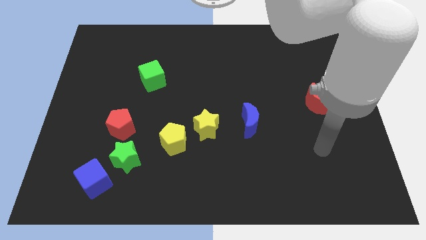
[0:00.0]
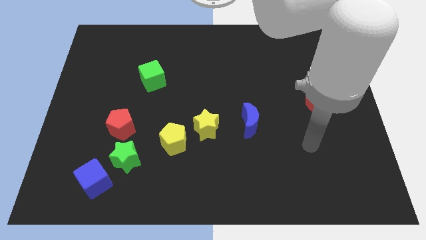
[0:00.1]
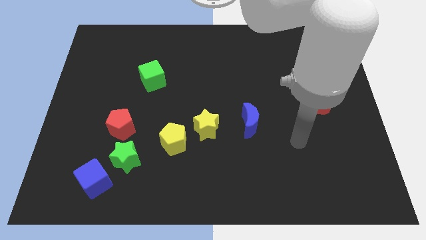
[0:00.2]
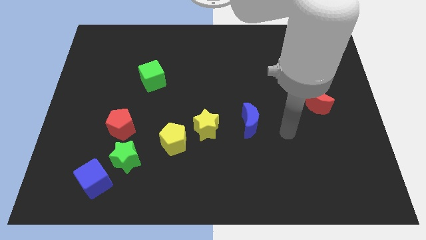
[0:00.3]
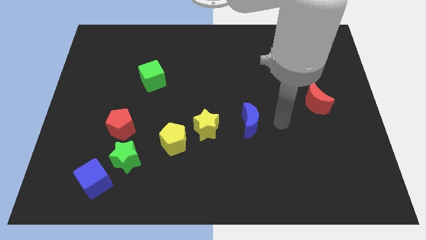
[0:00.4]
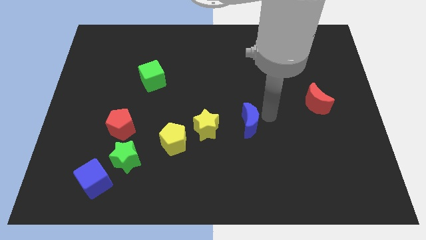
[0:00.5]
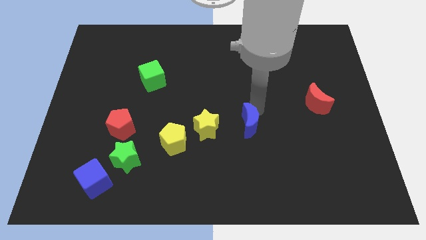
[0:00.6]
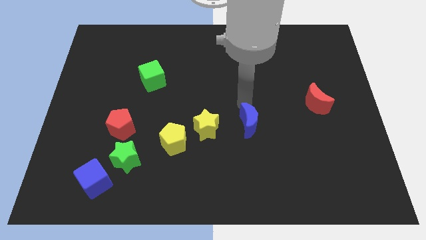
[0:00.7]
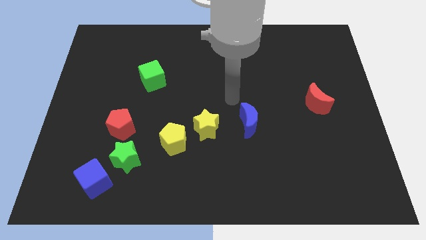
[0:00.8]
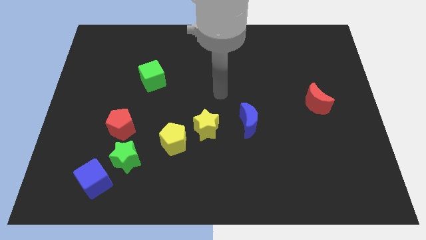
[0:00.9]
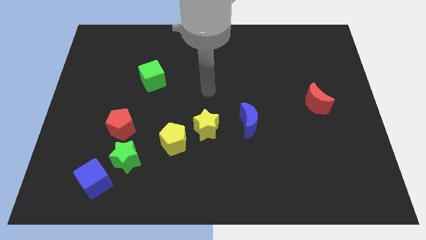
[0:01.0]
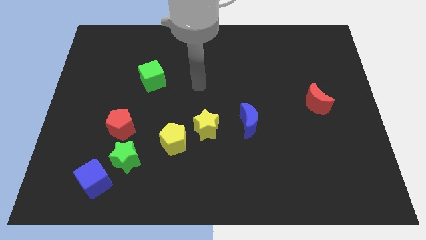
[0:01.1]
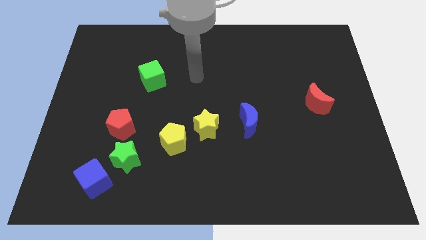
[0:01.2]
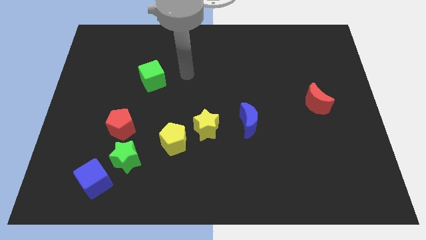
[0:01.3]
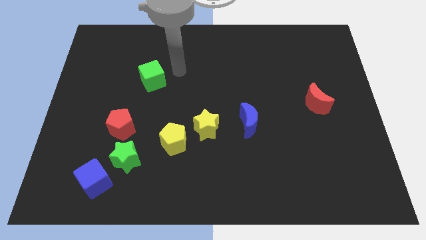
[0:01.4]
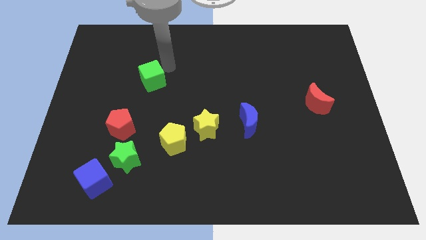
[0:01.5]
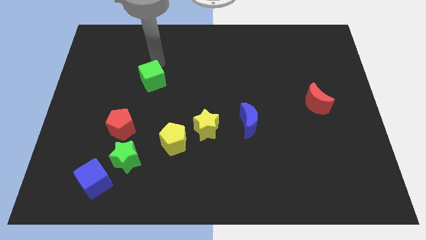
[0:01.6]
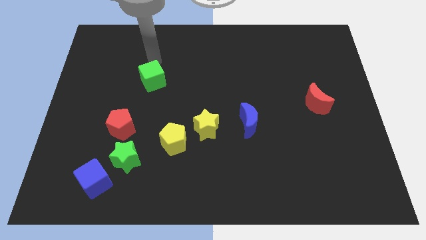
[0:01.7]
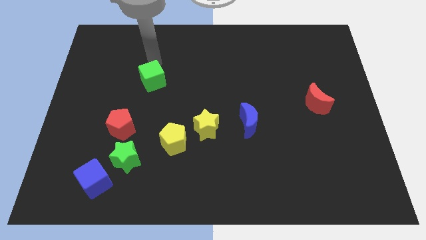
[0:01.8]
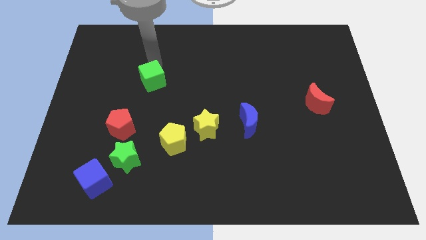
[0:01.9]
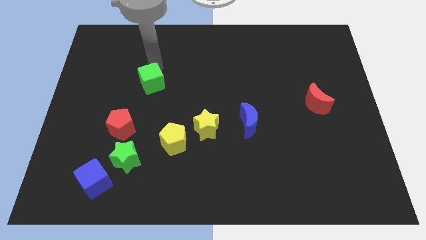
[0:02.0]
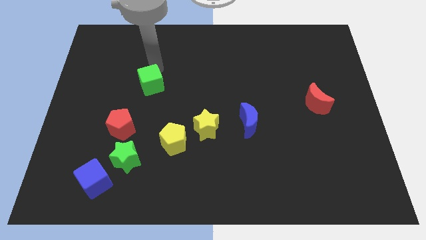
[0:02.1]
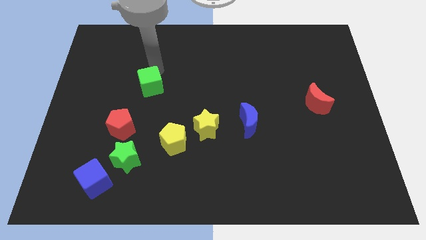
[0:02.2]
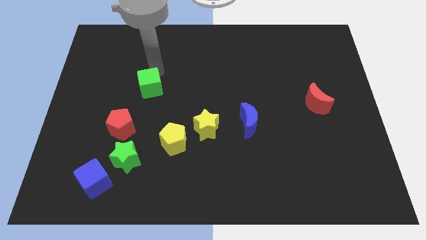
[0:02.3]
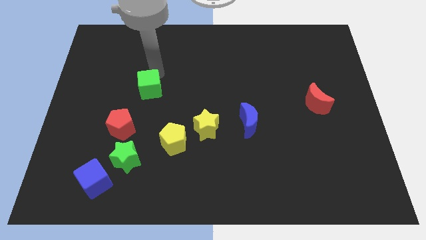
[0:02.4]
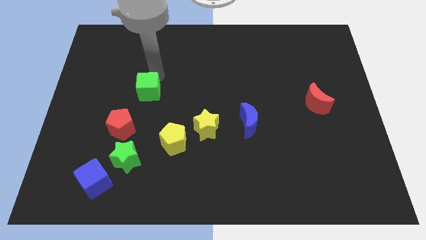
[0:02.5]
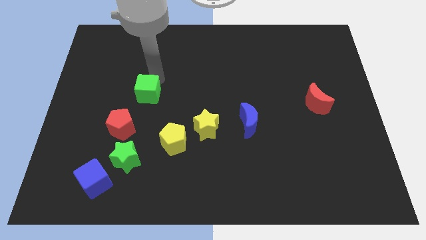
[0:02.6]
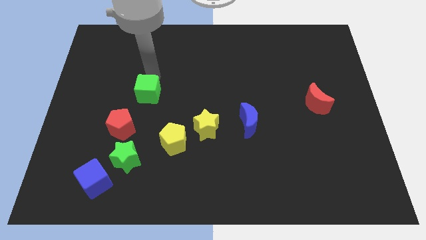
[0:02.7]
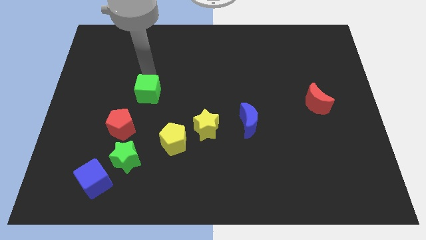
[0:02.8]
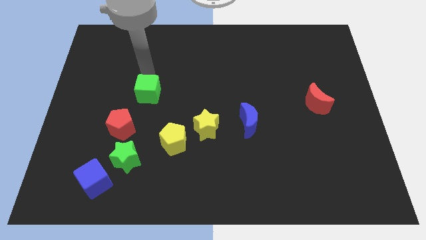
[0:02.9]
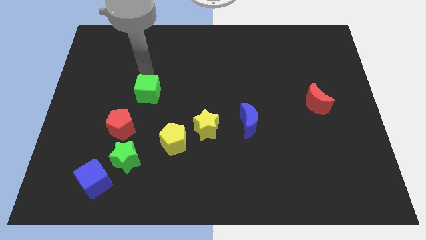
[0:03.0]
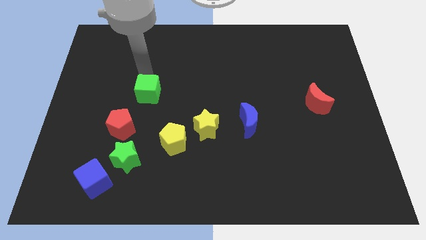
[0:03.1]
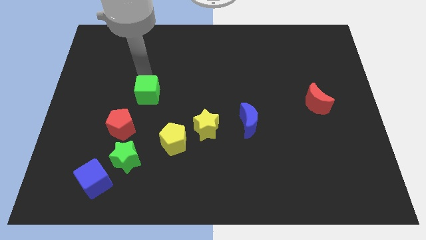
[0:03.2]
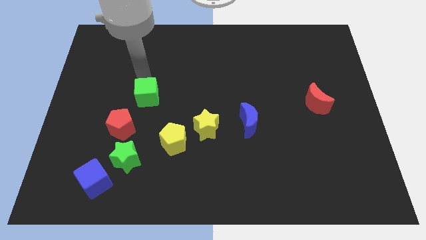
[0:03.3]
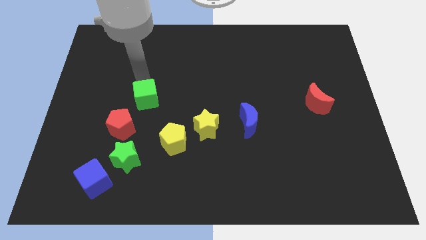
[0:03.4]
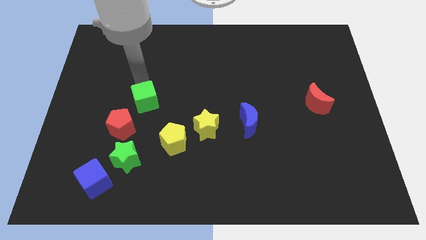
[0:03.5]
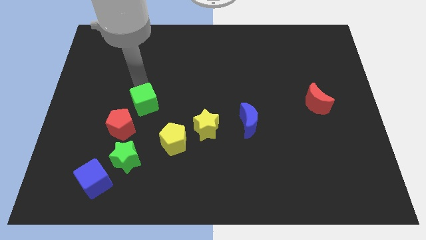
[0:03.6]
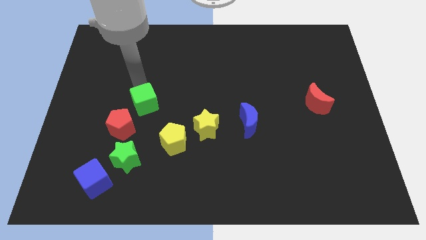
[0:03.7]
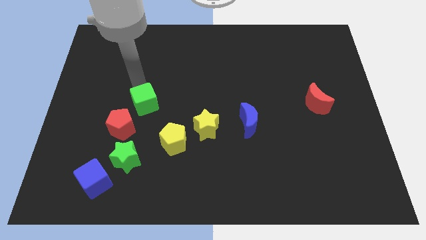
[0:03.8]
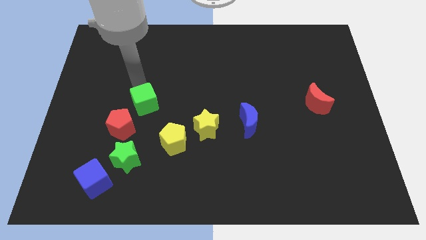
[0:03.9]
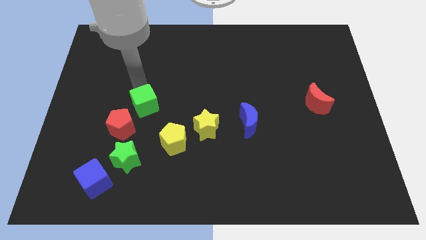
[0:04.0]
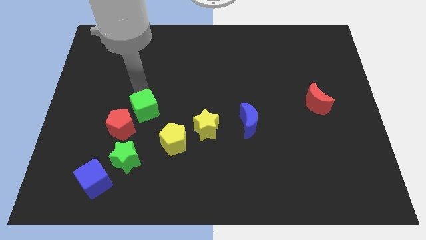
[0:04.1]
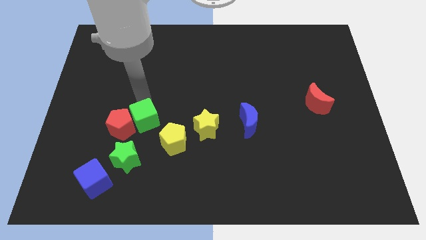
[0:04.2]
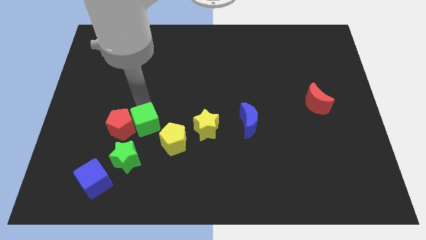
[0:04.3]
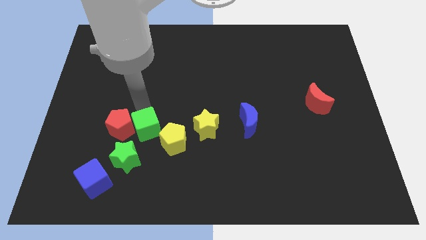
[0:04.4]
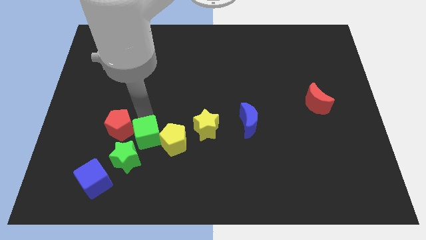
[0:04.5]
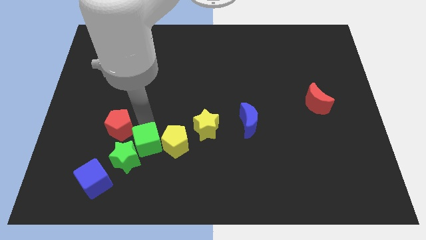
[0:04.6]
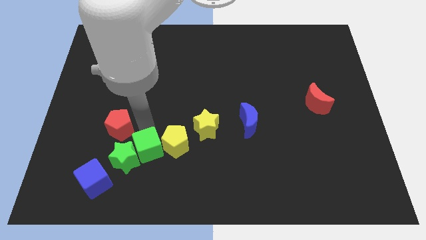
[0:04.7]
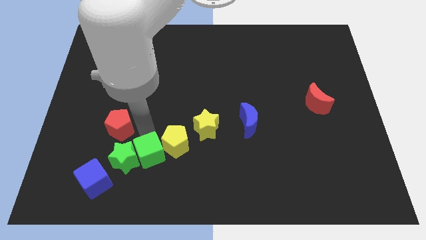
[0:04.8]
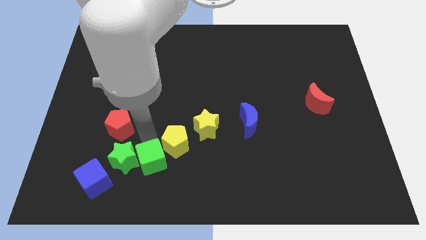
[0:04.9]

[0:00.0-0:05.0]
push the green cube diagonally down and to the right of the green star

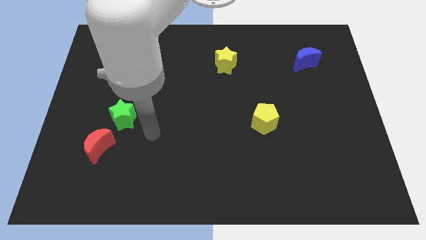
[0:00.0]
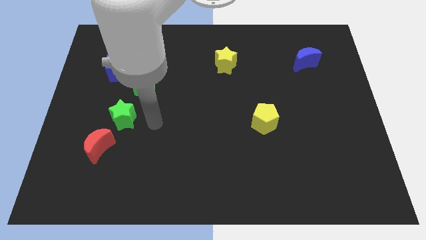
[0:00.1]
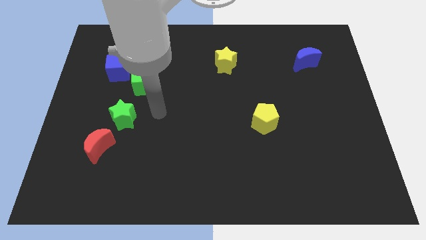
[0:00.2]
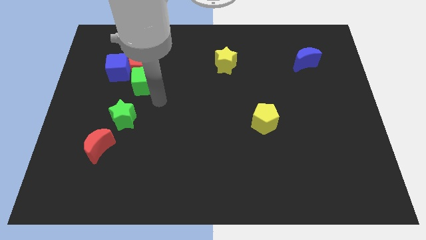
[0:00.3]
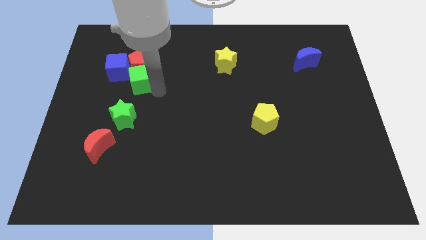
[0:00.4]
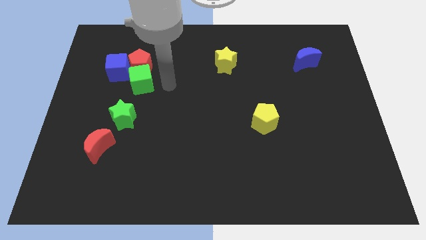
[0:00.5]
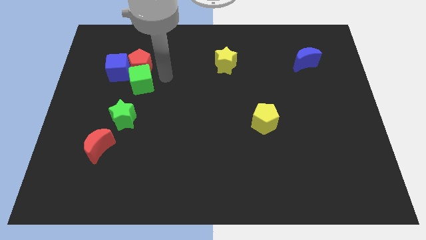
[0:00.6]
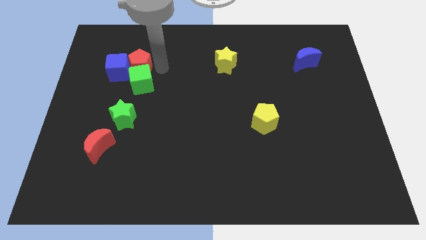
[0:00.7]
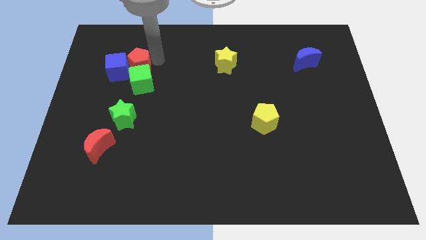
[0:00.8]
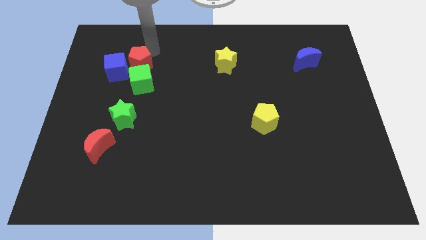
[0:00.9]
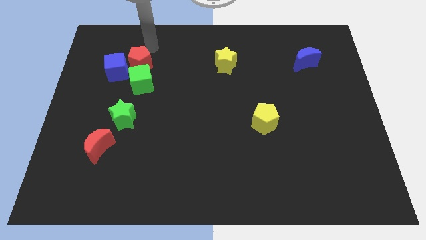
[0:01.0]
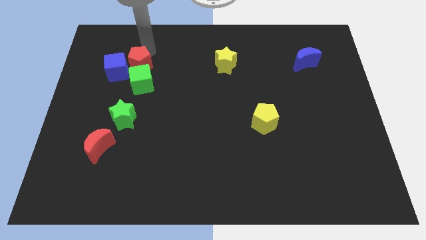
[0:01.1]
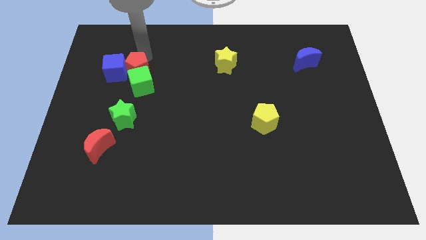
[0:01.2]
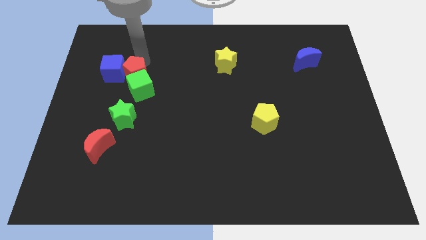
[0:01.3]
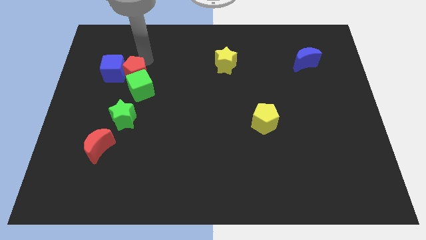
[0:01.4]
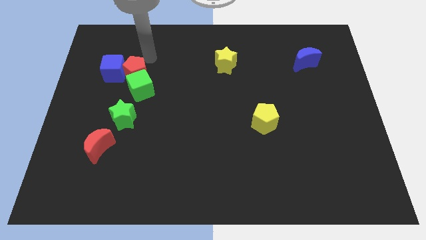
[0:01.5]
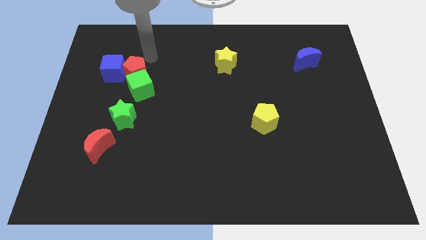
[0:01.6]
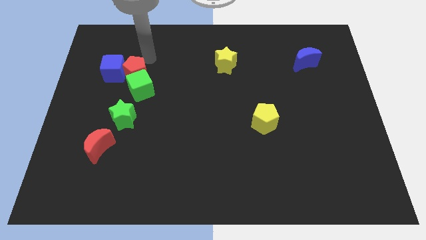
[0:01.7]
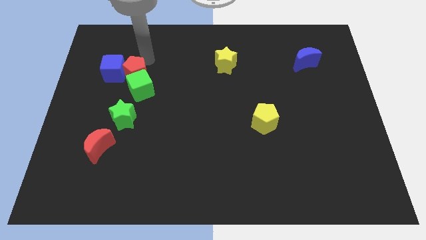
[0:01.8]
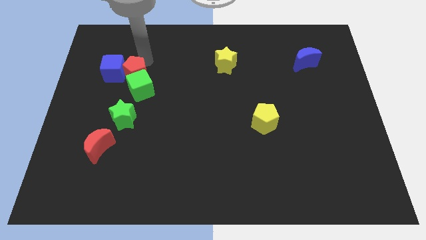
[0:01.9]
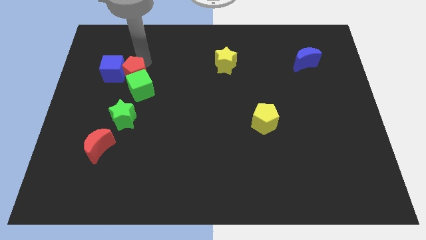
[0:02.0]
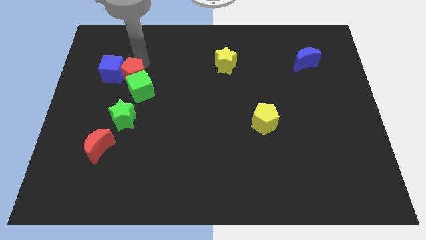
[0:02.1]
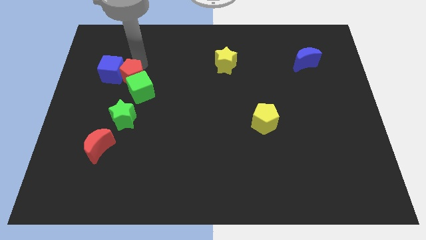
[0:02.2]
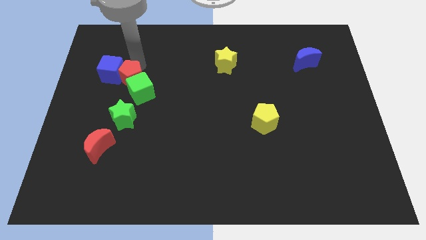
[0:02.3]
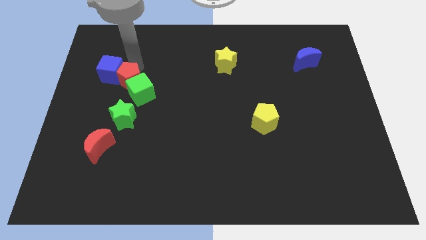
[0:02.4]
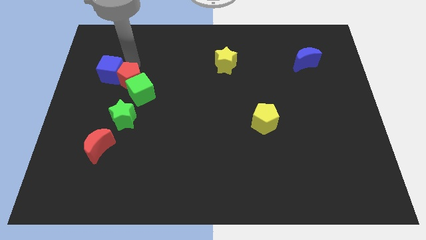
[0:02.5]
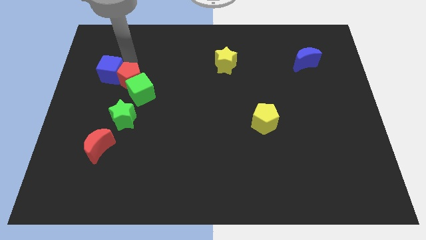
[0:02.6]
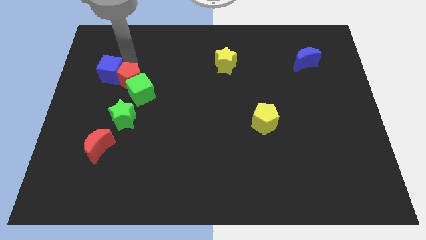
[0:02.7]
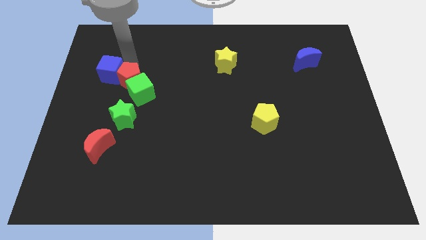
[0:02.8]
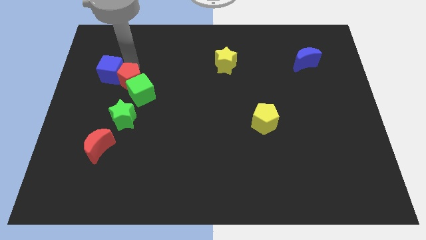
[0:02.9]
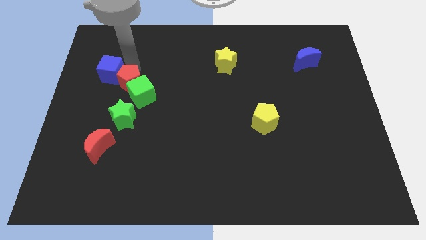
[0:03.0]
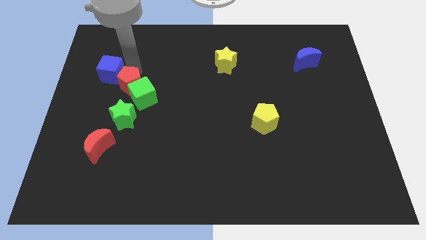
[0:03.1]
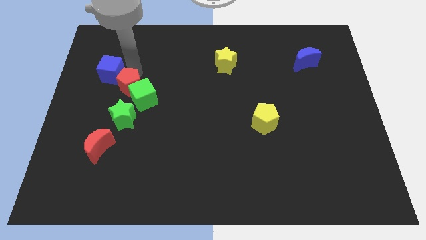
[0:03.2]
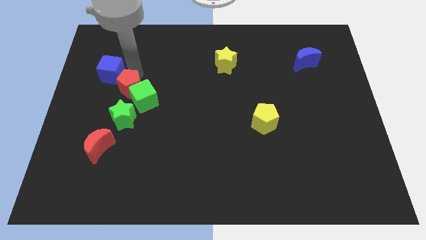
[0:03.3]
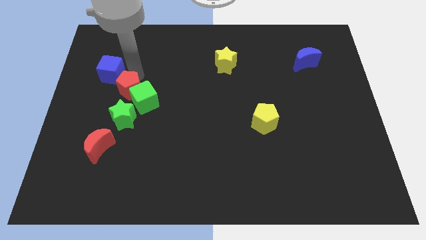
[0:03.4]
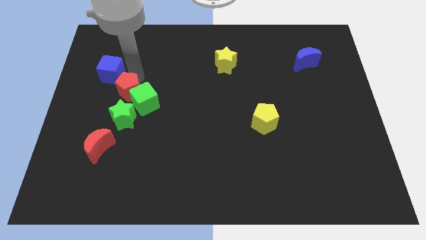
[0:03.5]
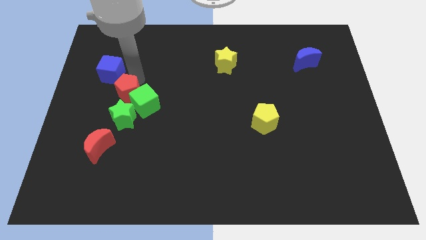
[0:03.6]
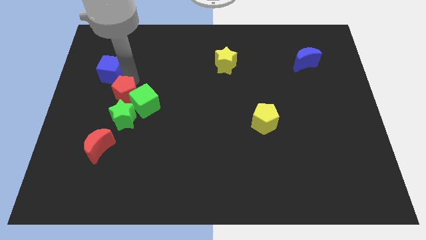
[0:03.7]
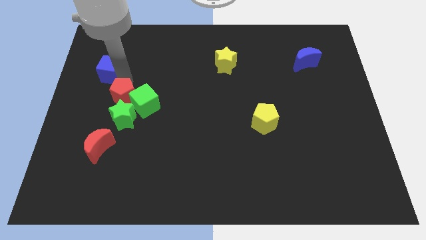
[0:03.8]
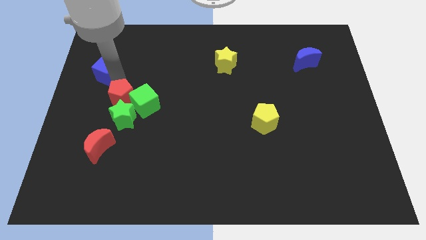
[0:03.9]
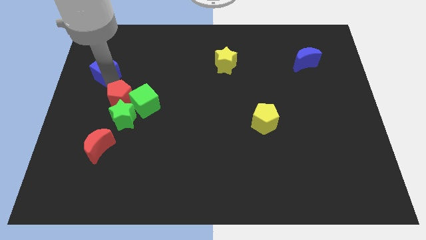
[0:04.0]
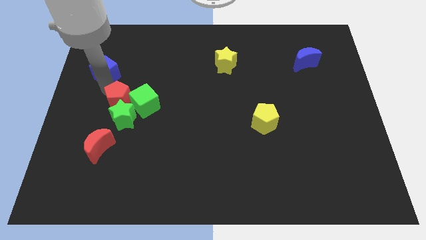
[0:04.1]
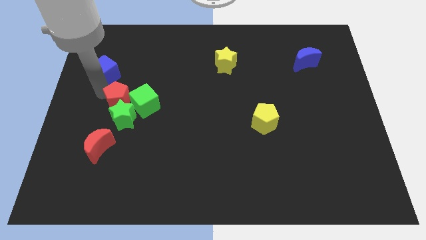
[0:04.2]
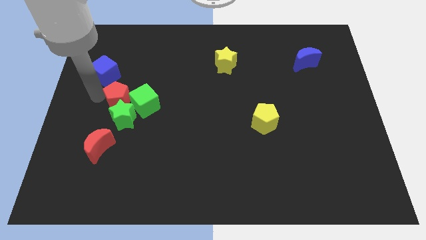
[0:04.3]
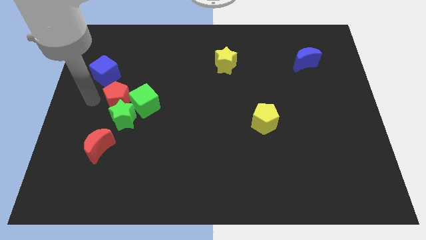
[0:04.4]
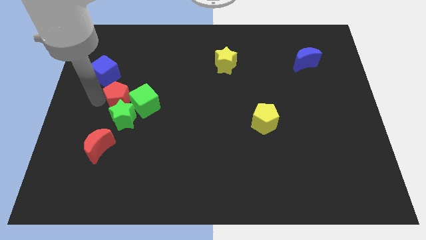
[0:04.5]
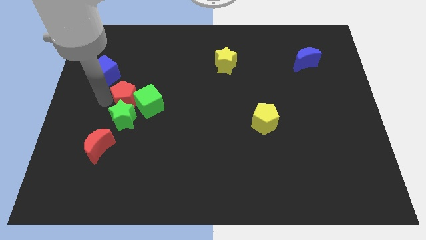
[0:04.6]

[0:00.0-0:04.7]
push the red pentagon to the top right side of the green star
